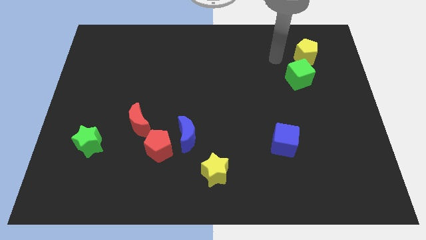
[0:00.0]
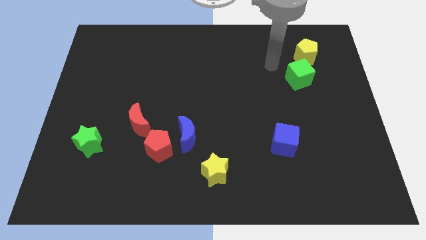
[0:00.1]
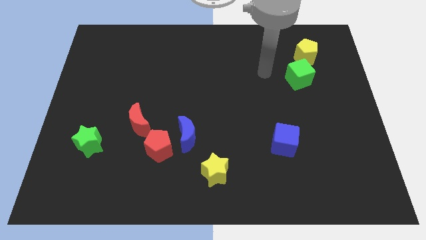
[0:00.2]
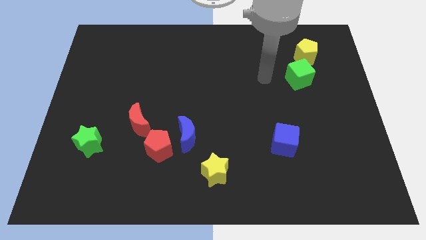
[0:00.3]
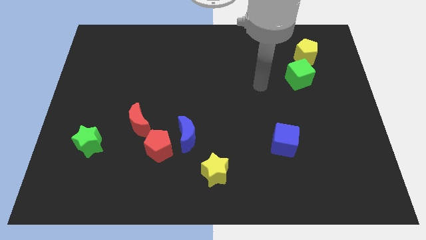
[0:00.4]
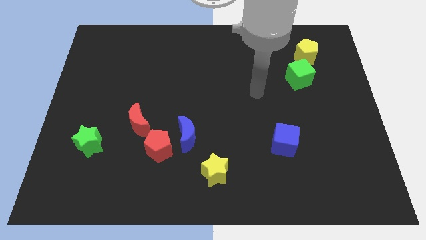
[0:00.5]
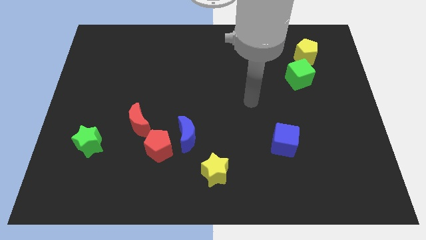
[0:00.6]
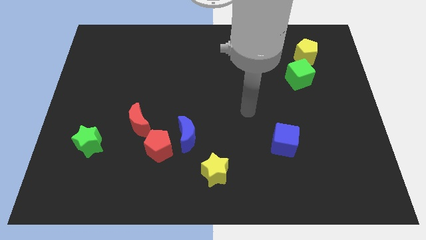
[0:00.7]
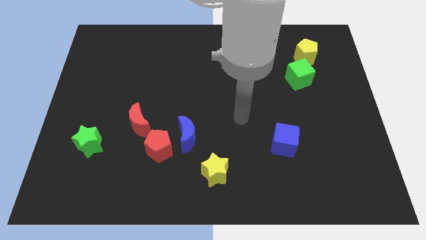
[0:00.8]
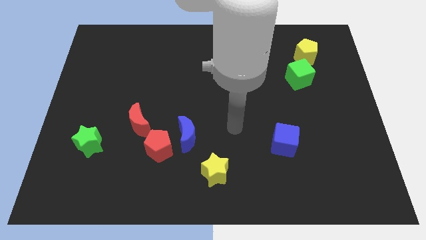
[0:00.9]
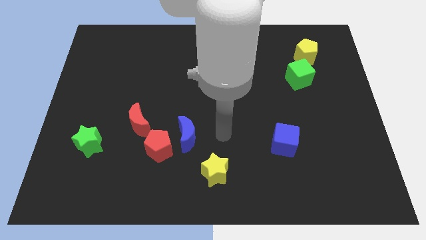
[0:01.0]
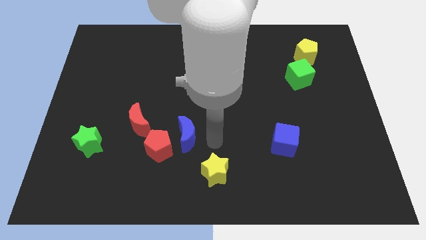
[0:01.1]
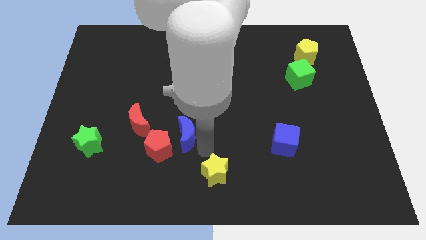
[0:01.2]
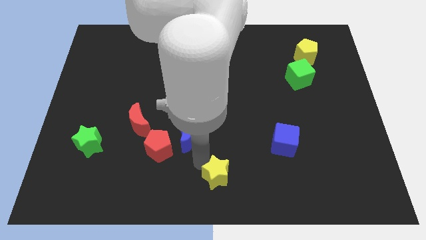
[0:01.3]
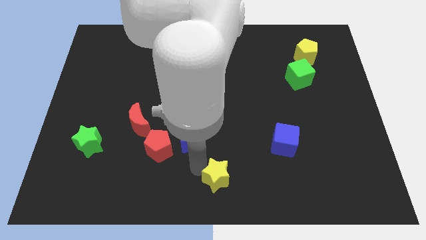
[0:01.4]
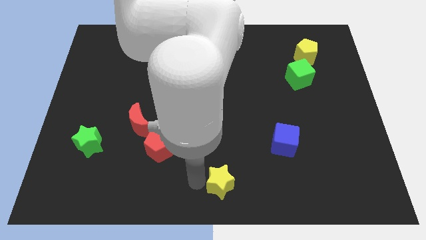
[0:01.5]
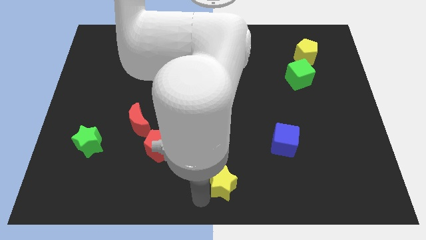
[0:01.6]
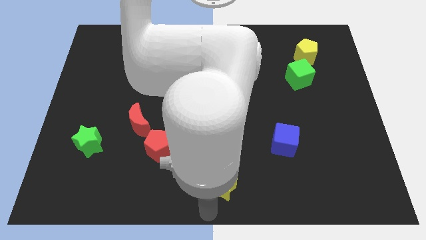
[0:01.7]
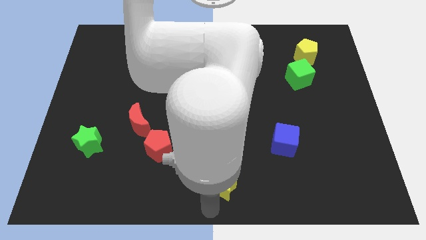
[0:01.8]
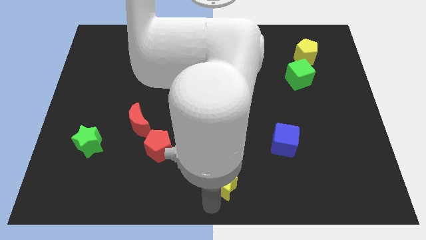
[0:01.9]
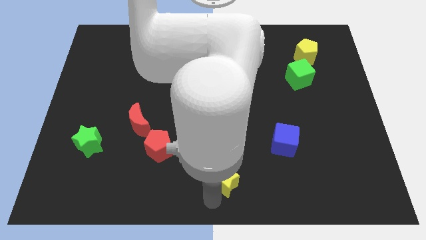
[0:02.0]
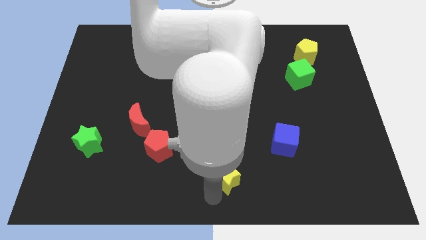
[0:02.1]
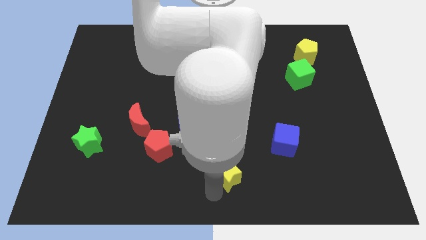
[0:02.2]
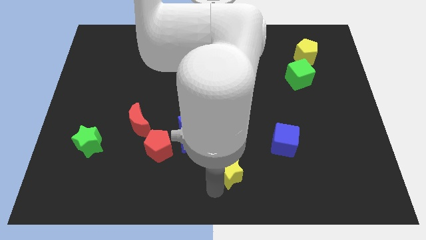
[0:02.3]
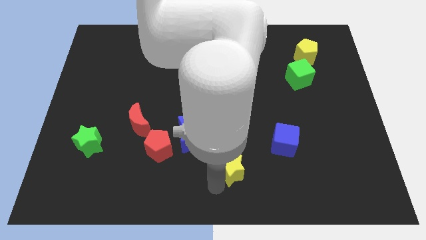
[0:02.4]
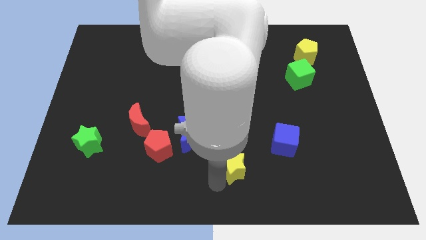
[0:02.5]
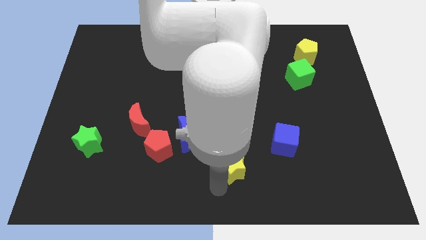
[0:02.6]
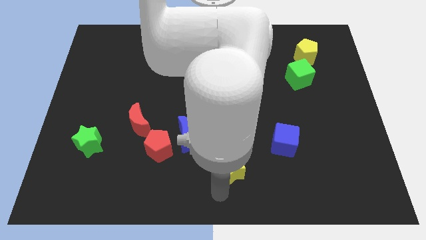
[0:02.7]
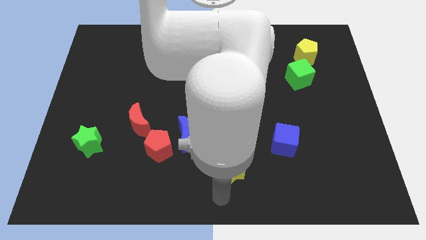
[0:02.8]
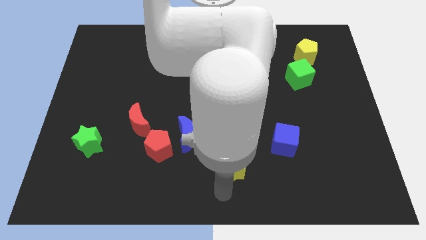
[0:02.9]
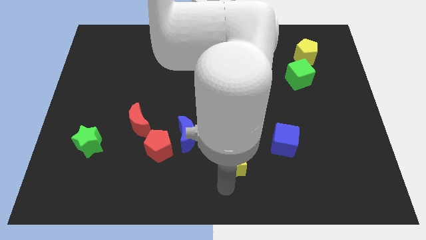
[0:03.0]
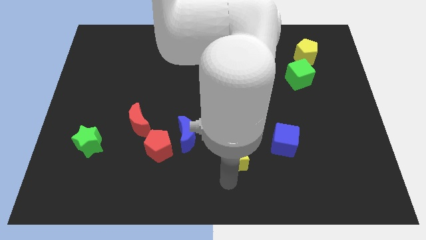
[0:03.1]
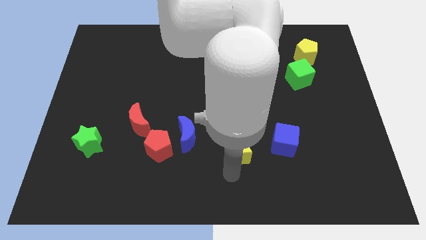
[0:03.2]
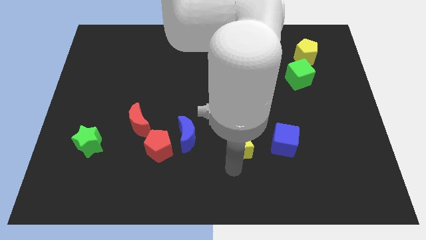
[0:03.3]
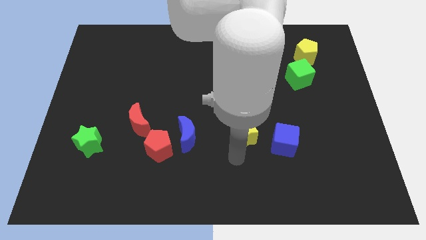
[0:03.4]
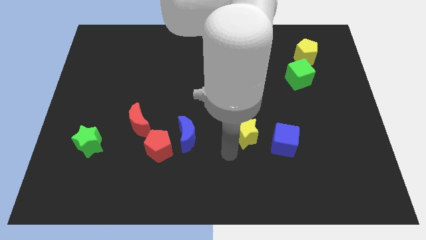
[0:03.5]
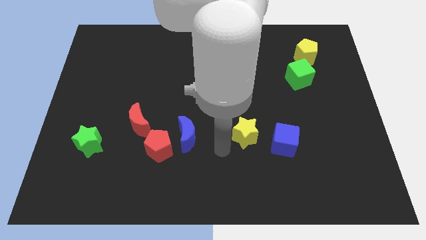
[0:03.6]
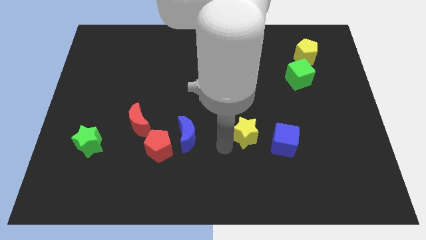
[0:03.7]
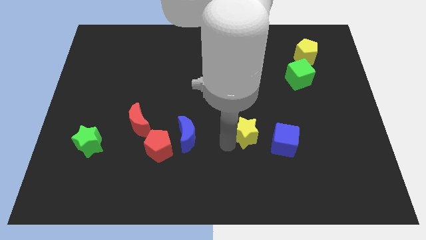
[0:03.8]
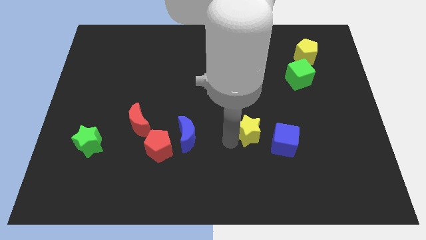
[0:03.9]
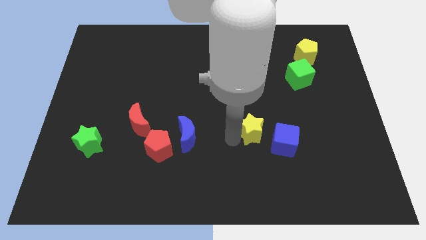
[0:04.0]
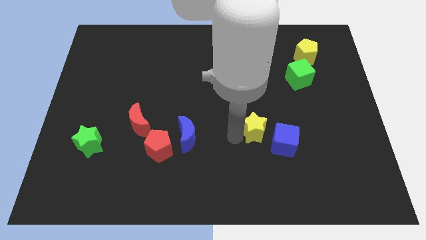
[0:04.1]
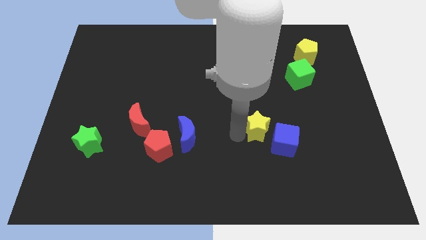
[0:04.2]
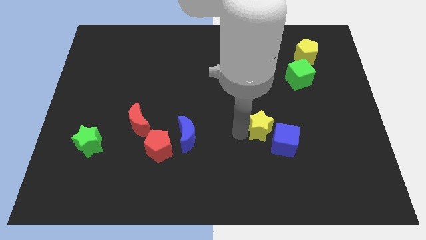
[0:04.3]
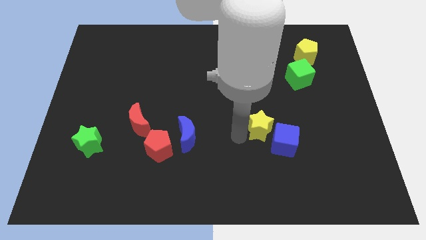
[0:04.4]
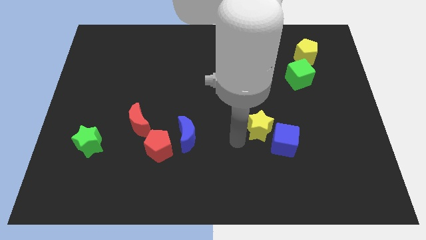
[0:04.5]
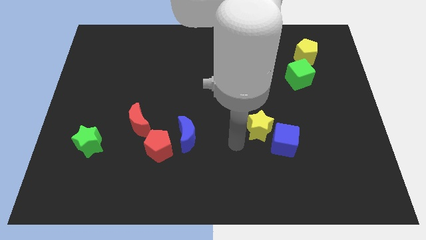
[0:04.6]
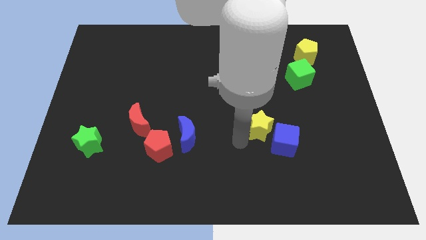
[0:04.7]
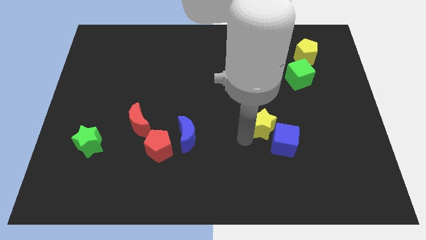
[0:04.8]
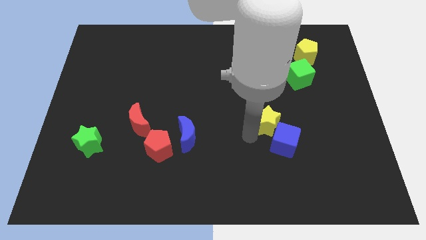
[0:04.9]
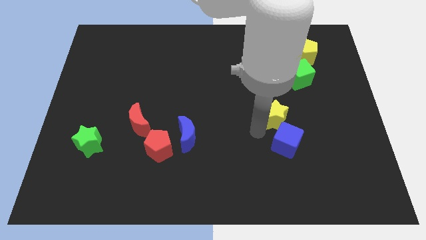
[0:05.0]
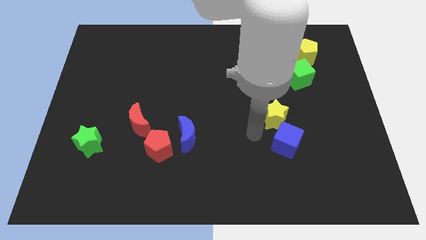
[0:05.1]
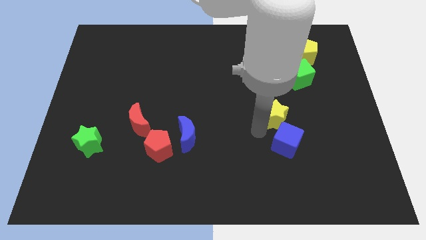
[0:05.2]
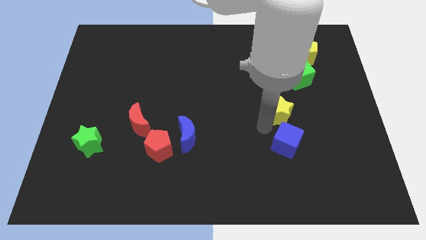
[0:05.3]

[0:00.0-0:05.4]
move the yellow star up and to the right

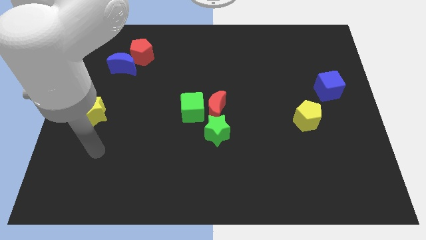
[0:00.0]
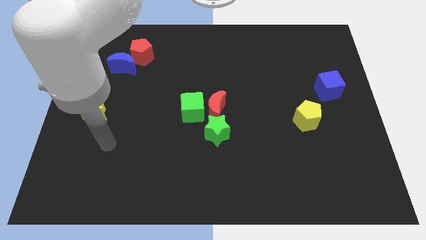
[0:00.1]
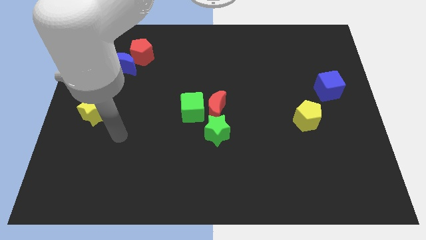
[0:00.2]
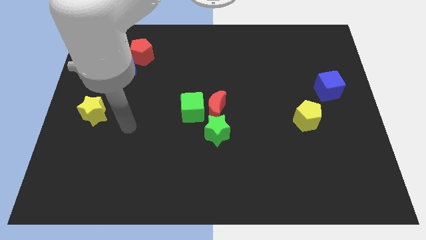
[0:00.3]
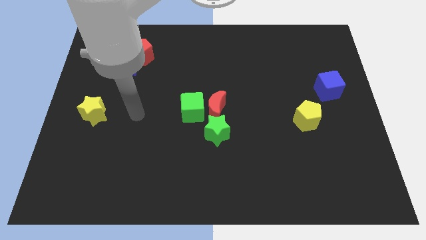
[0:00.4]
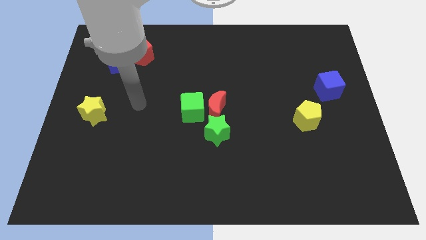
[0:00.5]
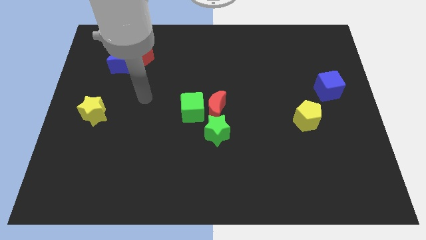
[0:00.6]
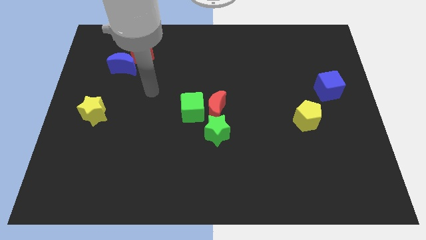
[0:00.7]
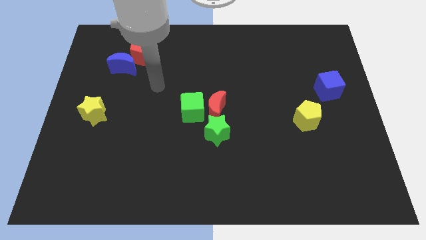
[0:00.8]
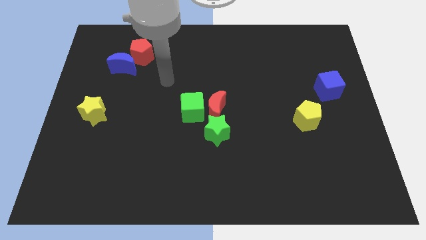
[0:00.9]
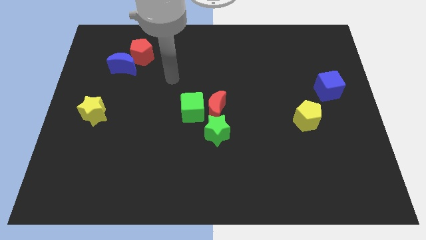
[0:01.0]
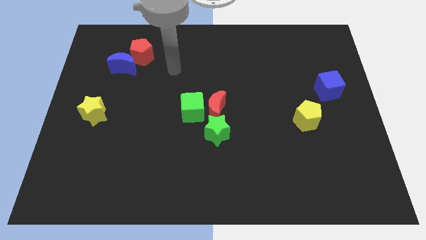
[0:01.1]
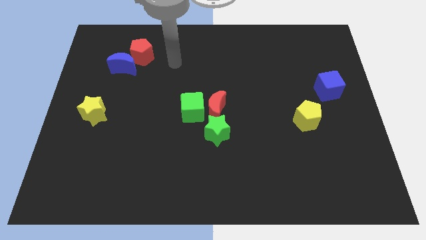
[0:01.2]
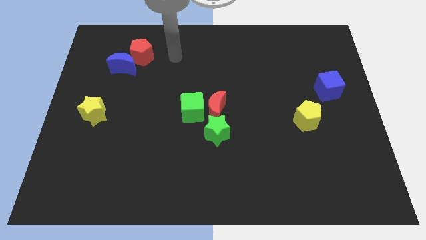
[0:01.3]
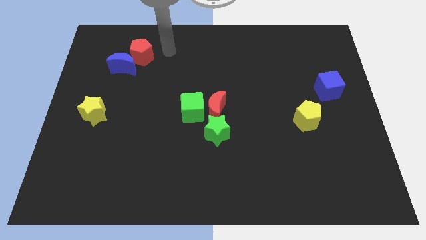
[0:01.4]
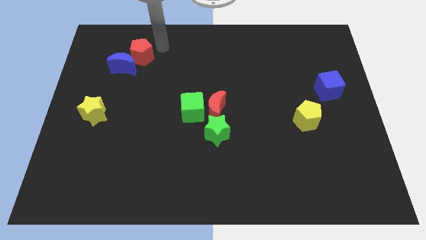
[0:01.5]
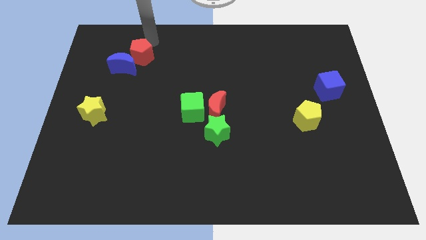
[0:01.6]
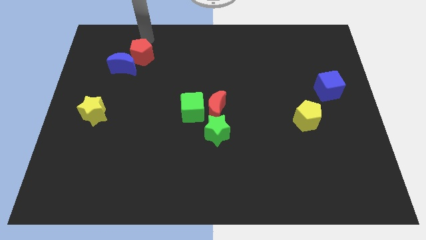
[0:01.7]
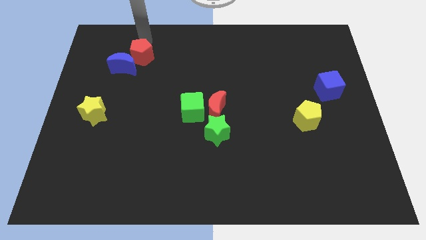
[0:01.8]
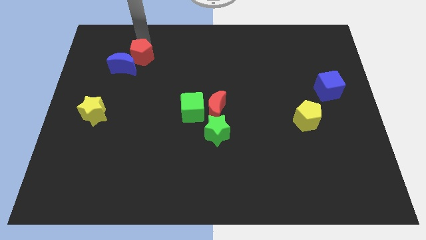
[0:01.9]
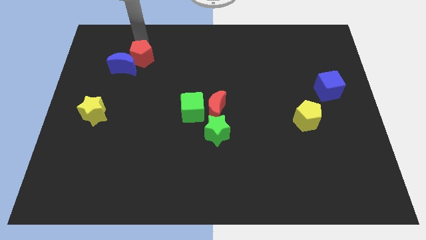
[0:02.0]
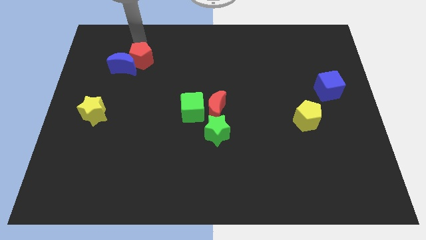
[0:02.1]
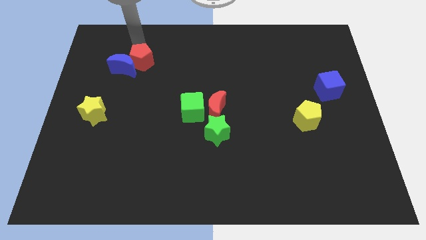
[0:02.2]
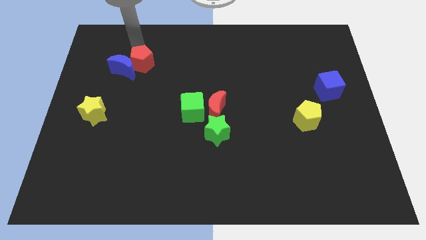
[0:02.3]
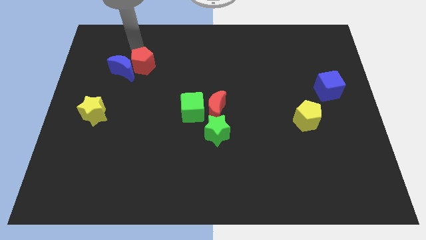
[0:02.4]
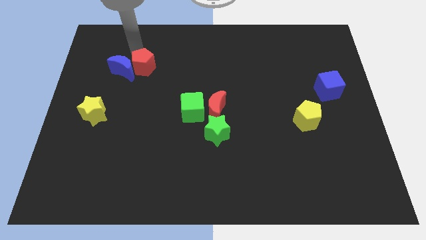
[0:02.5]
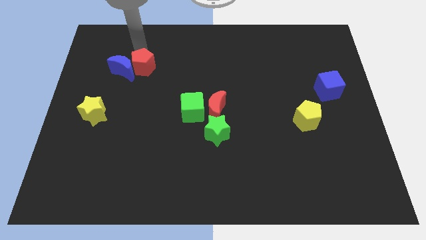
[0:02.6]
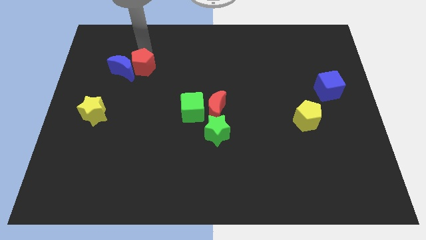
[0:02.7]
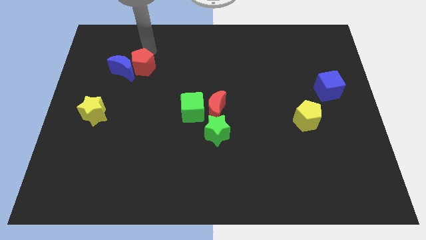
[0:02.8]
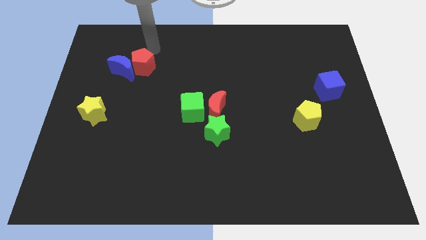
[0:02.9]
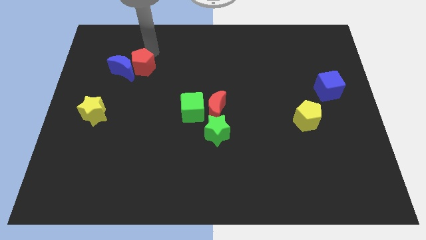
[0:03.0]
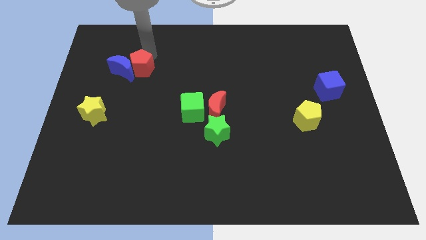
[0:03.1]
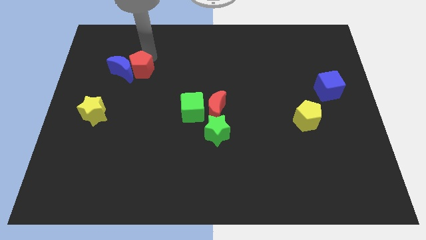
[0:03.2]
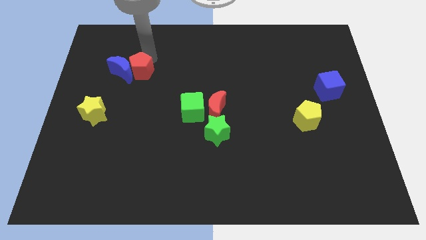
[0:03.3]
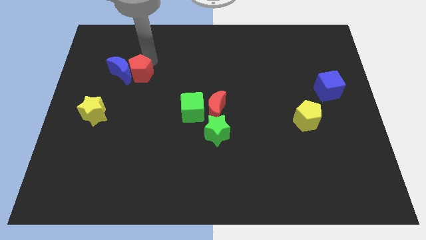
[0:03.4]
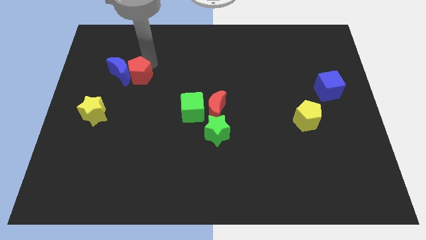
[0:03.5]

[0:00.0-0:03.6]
slide the red pentagon down slightly
